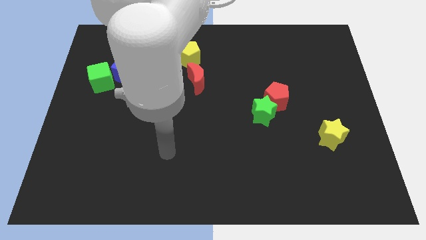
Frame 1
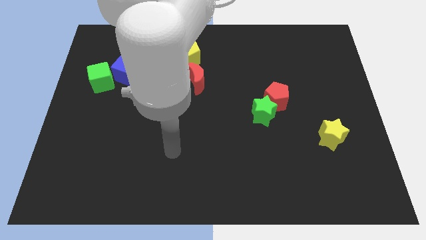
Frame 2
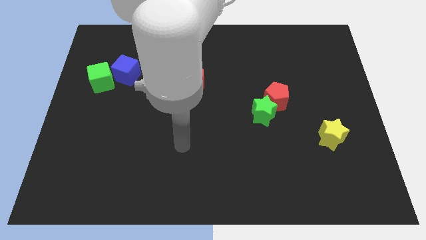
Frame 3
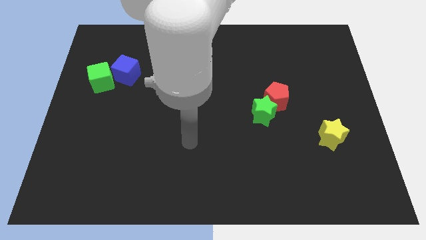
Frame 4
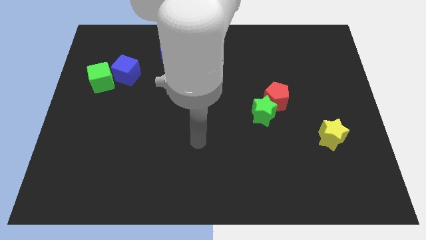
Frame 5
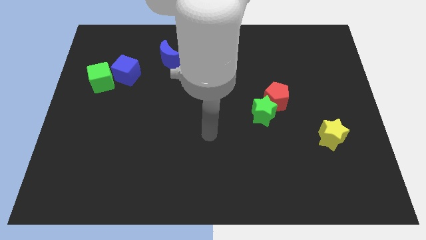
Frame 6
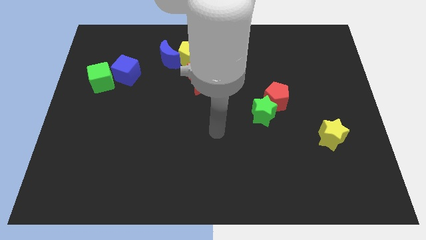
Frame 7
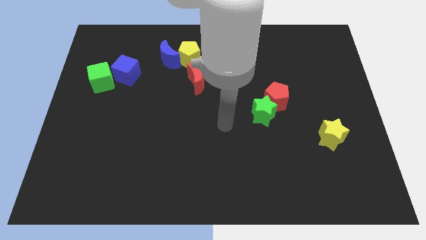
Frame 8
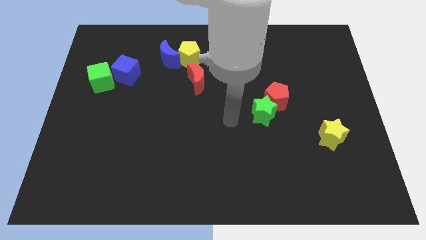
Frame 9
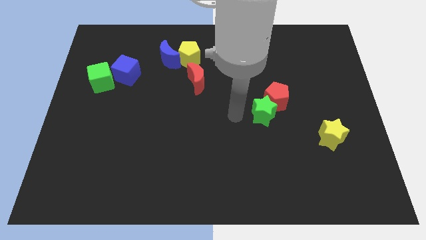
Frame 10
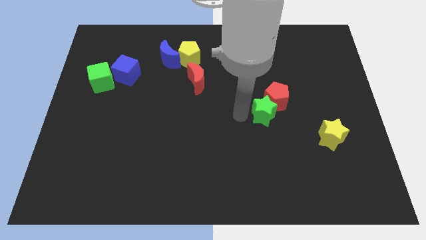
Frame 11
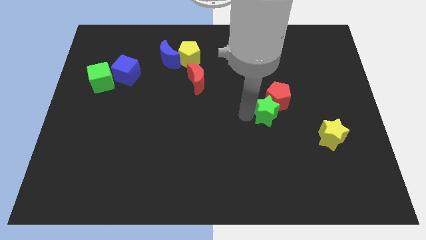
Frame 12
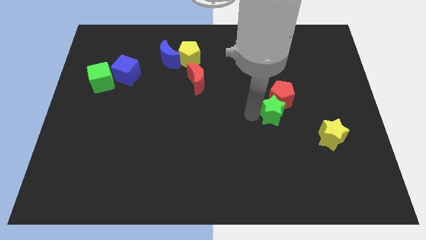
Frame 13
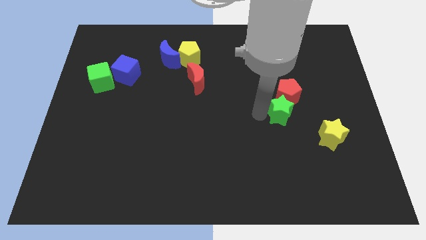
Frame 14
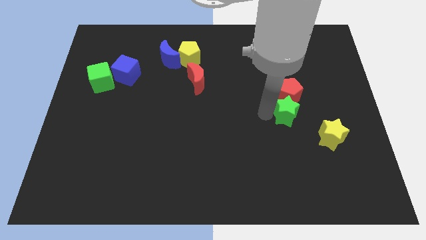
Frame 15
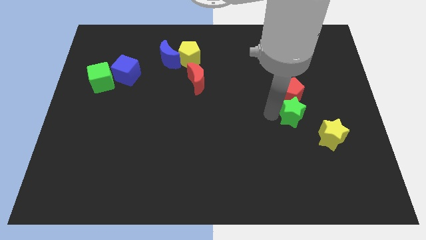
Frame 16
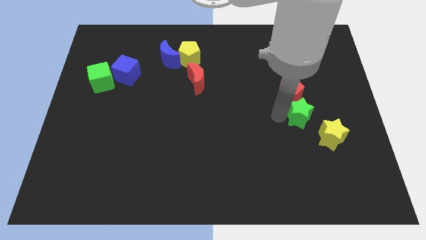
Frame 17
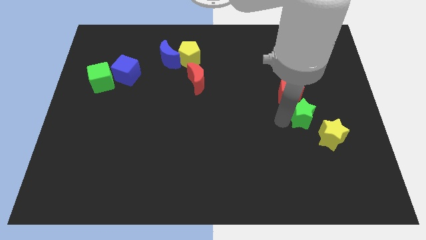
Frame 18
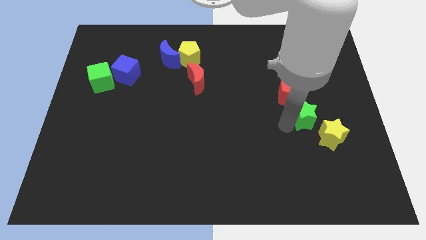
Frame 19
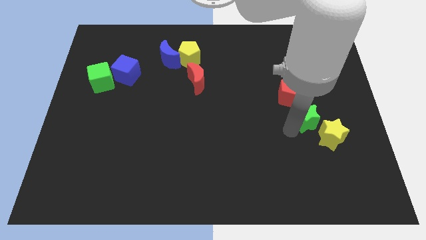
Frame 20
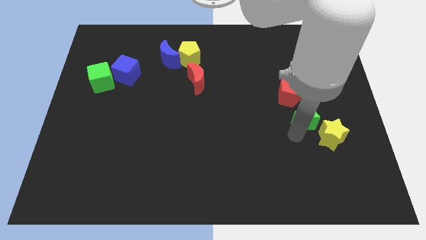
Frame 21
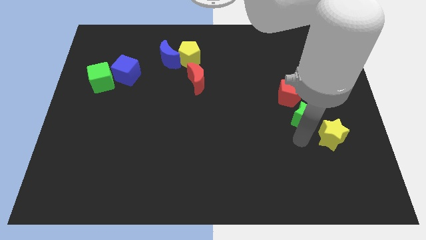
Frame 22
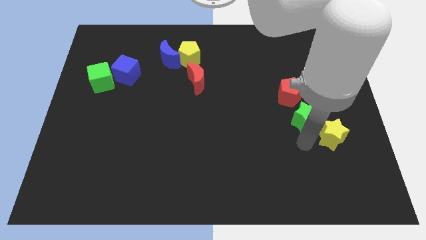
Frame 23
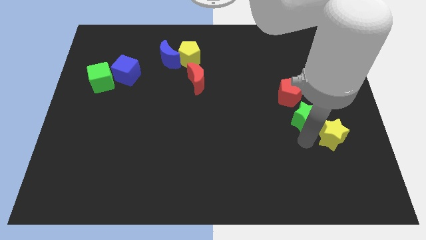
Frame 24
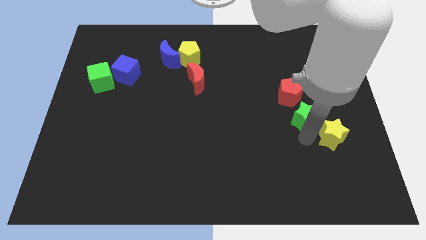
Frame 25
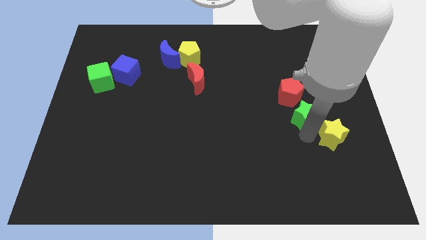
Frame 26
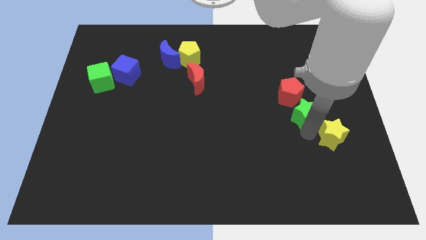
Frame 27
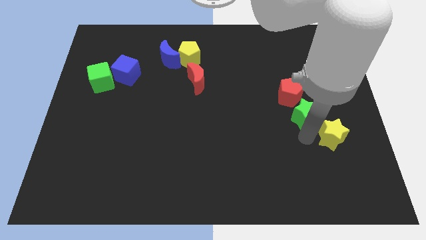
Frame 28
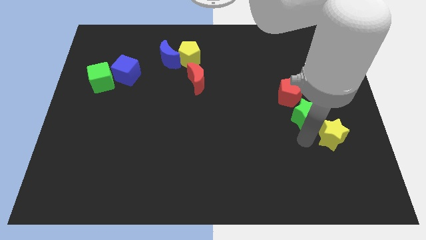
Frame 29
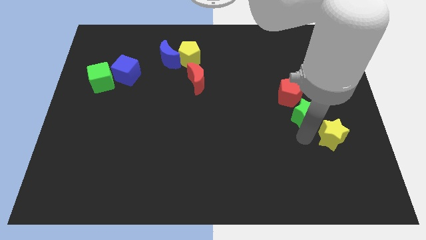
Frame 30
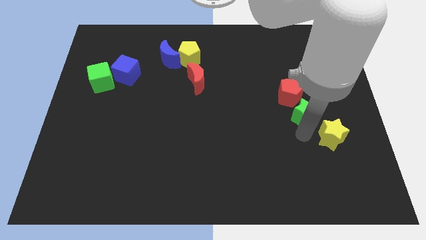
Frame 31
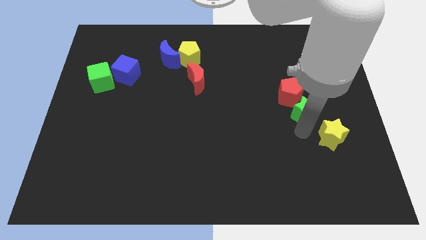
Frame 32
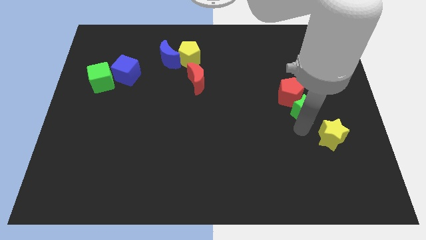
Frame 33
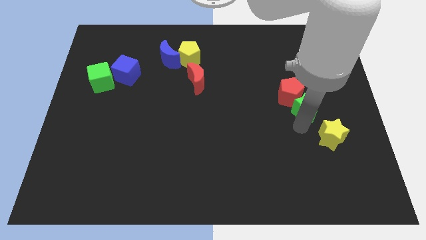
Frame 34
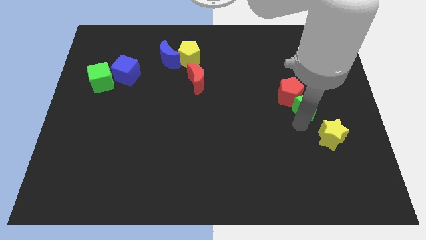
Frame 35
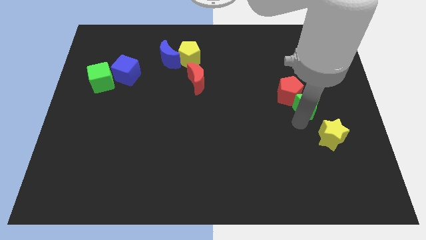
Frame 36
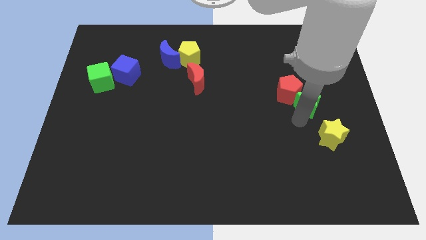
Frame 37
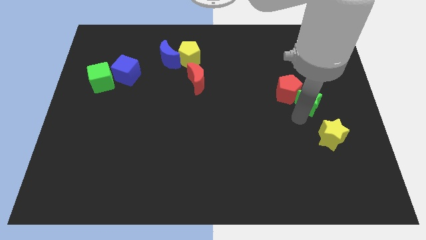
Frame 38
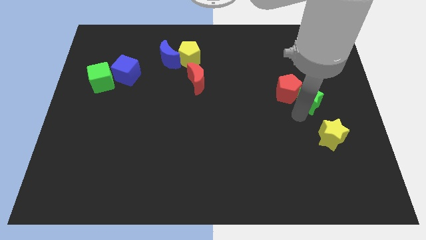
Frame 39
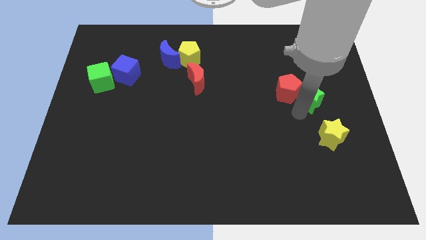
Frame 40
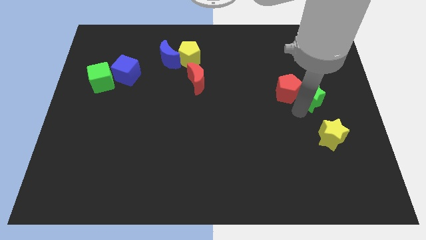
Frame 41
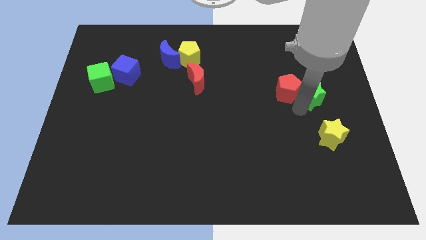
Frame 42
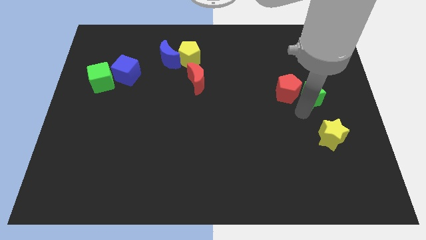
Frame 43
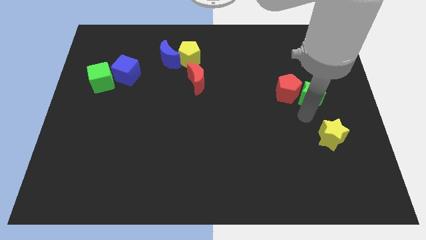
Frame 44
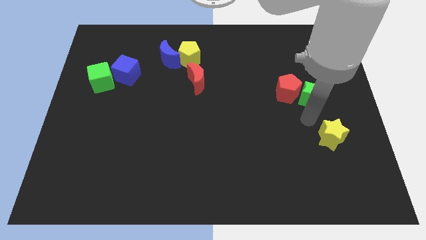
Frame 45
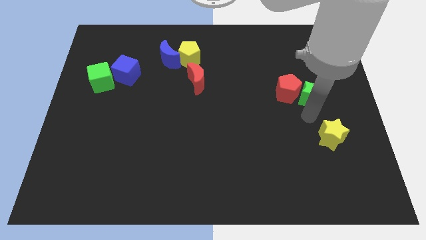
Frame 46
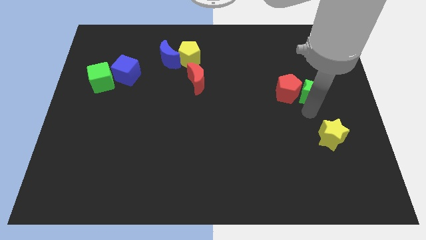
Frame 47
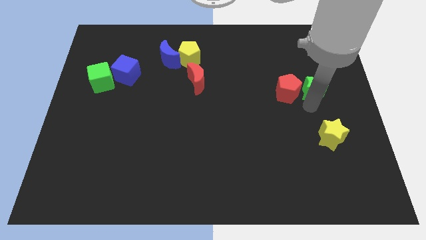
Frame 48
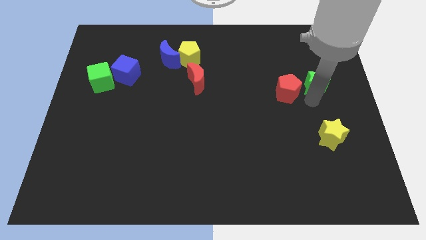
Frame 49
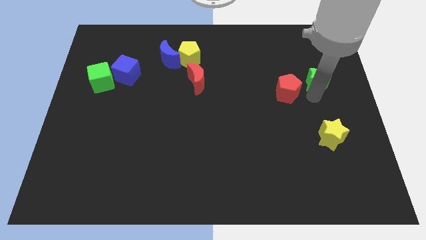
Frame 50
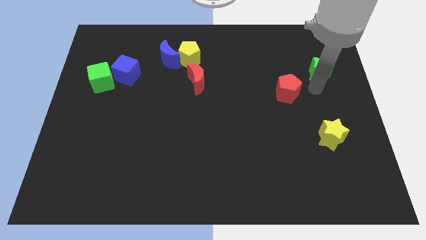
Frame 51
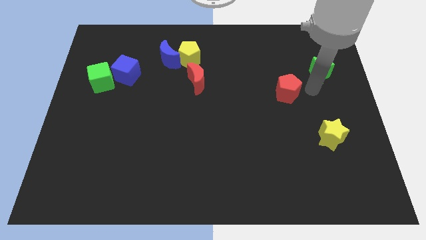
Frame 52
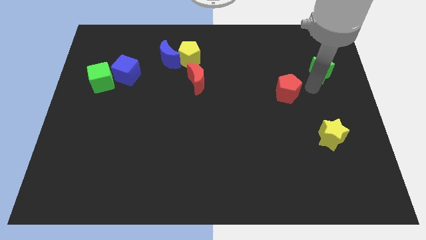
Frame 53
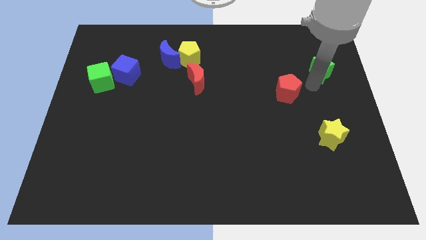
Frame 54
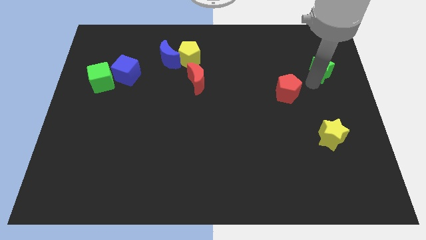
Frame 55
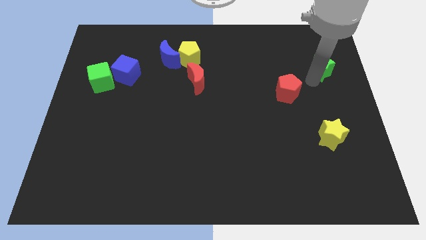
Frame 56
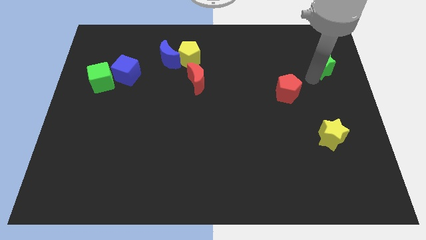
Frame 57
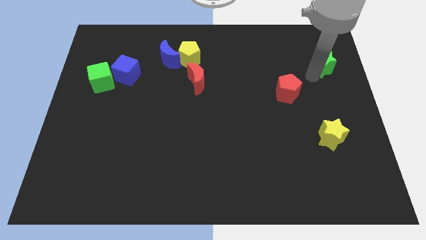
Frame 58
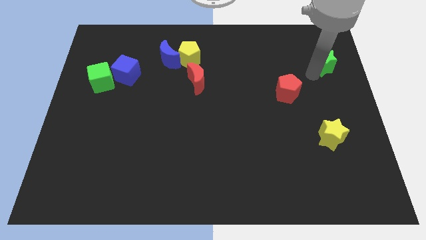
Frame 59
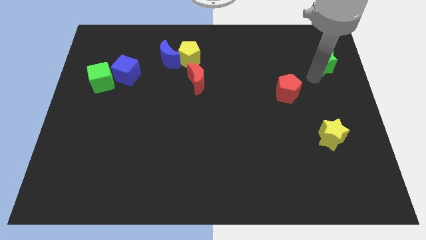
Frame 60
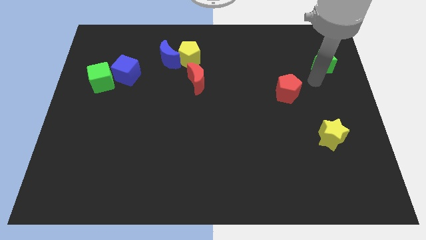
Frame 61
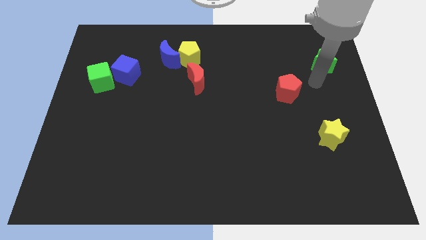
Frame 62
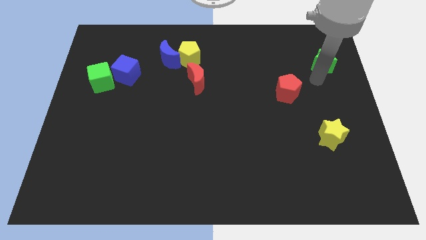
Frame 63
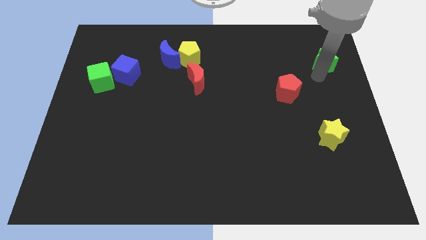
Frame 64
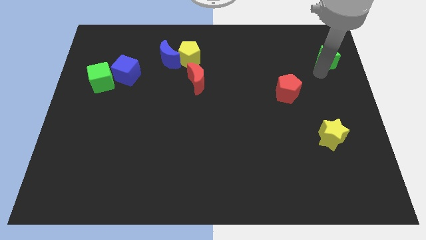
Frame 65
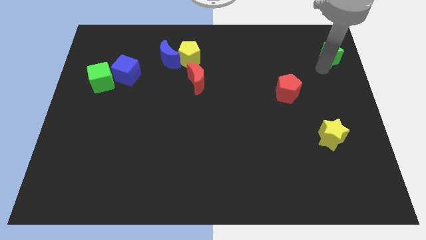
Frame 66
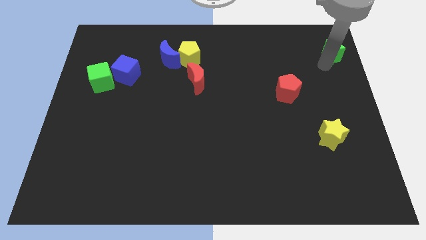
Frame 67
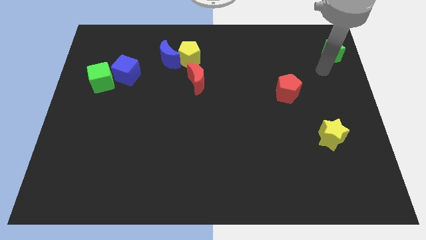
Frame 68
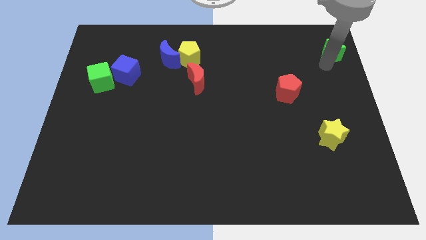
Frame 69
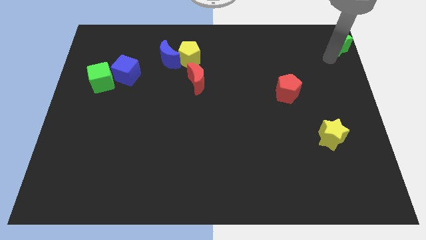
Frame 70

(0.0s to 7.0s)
slide the green star to the upper right corner
